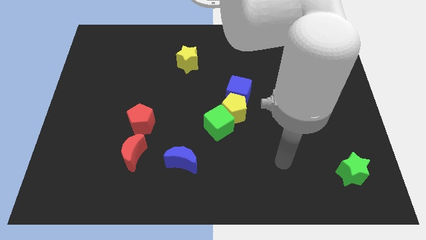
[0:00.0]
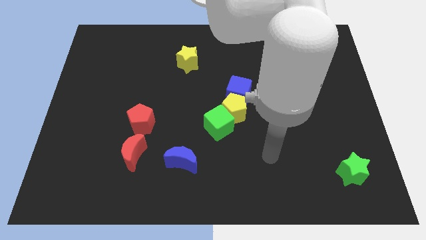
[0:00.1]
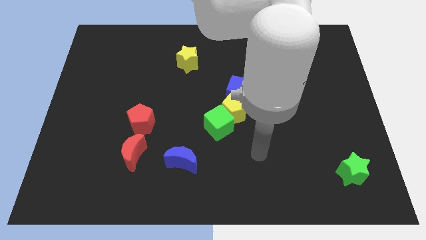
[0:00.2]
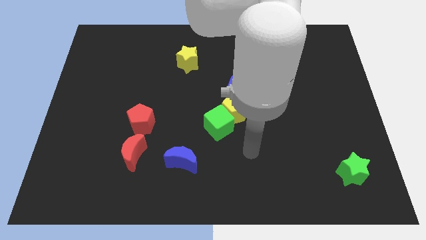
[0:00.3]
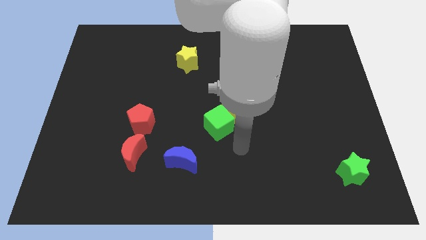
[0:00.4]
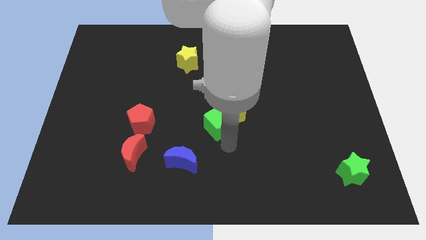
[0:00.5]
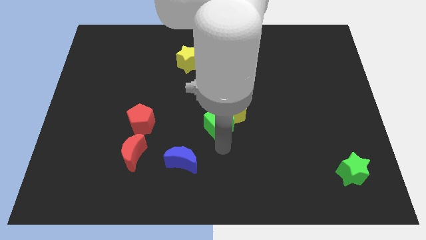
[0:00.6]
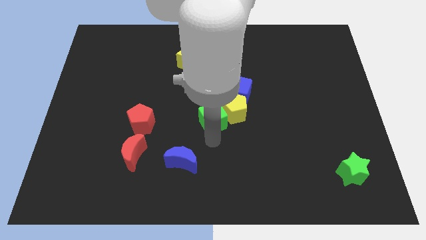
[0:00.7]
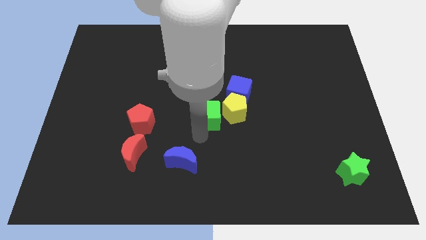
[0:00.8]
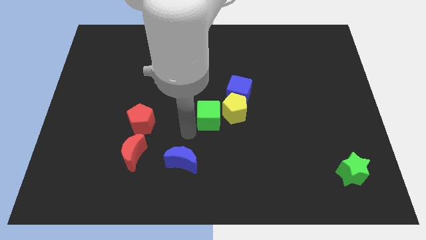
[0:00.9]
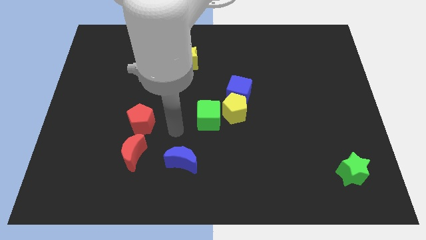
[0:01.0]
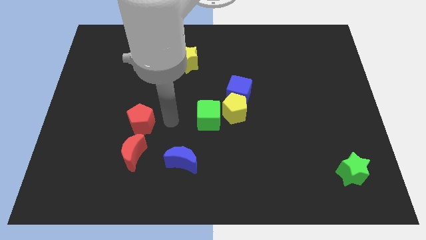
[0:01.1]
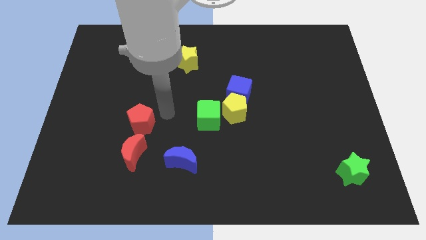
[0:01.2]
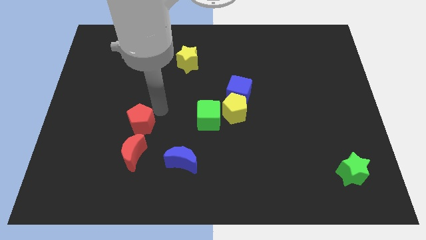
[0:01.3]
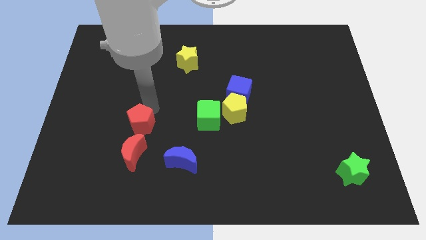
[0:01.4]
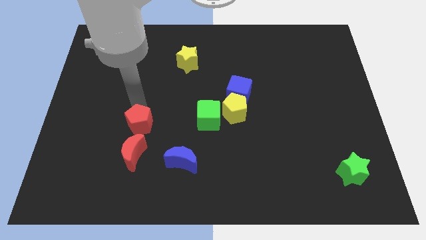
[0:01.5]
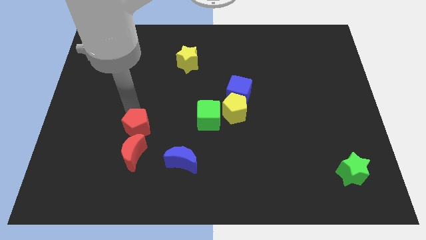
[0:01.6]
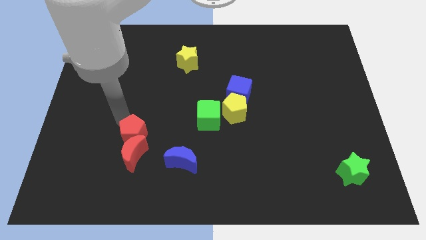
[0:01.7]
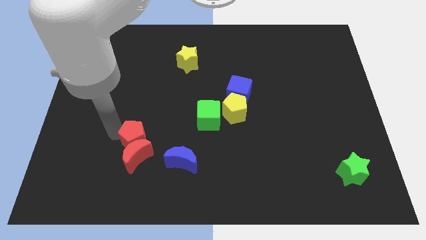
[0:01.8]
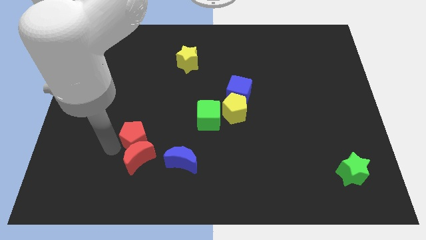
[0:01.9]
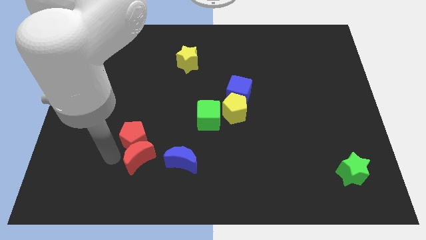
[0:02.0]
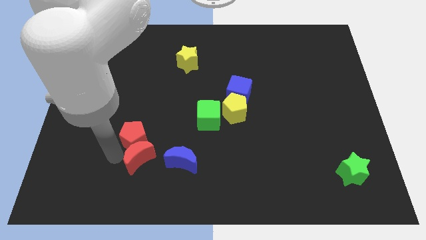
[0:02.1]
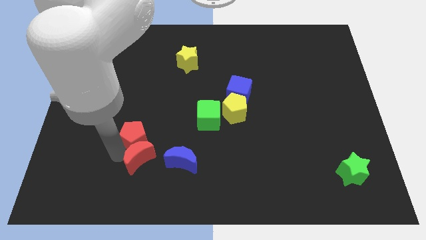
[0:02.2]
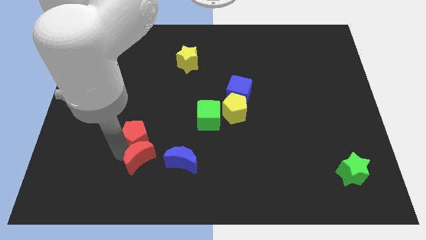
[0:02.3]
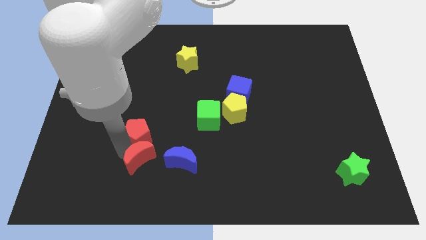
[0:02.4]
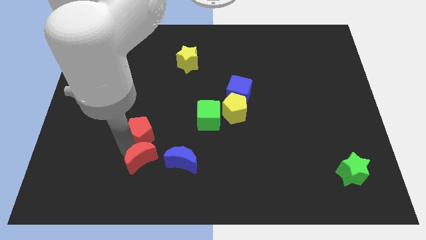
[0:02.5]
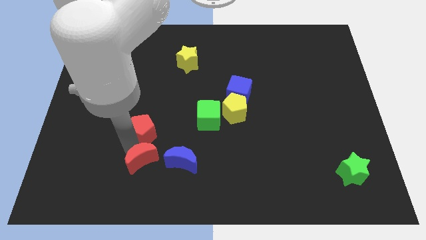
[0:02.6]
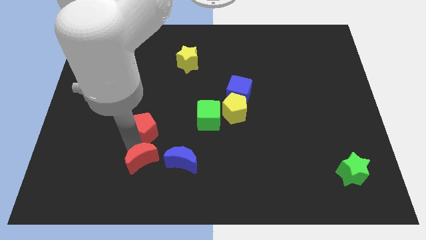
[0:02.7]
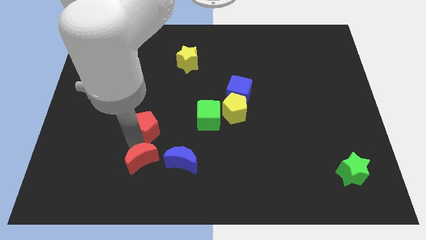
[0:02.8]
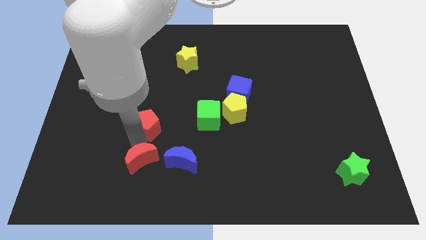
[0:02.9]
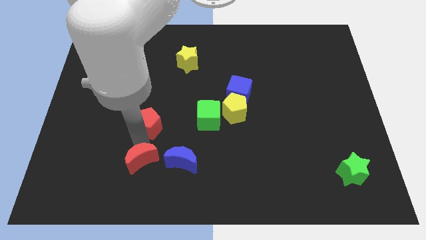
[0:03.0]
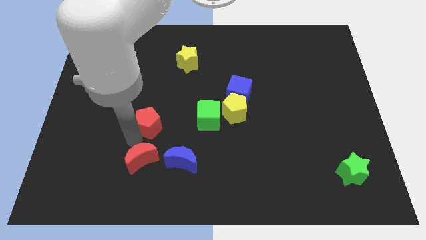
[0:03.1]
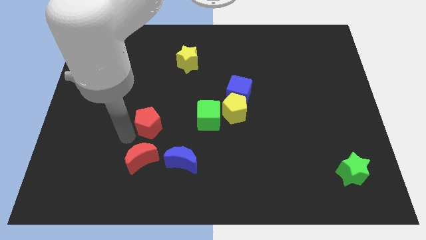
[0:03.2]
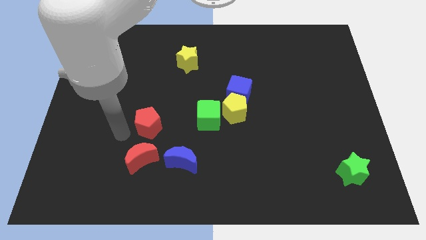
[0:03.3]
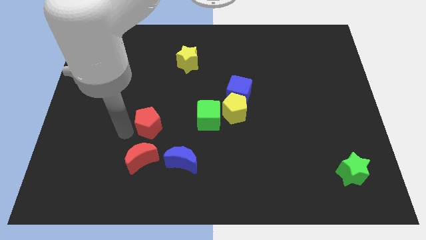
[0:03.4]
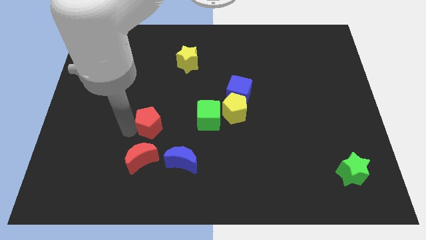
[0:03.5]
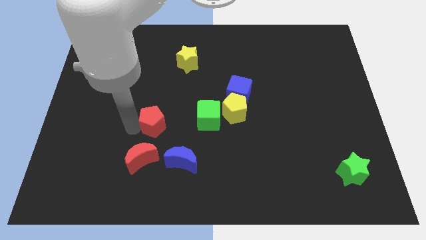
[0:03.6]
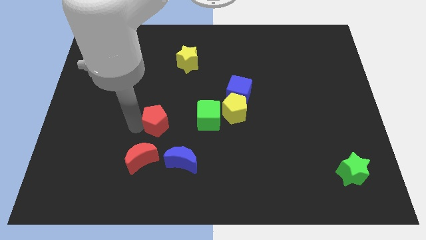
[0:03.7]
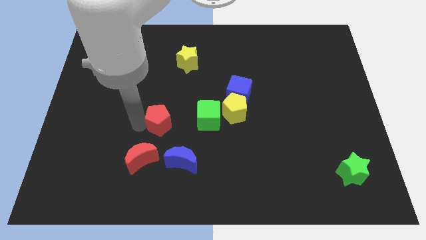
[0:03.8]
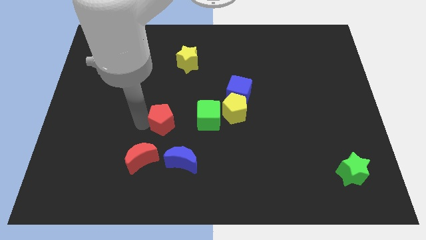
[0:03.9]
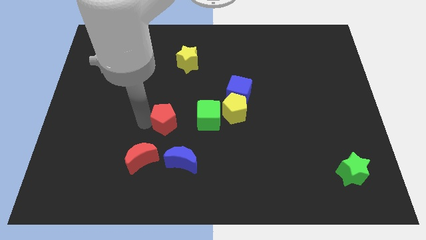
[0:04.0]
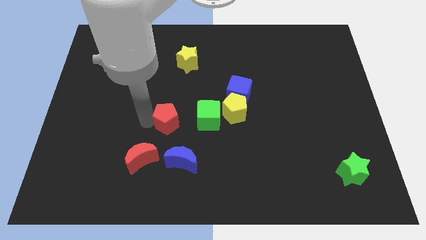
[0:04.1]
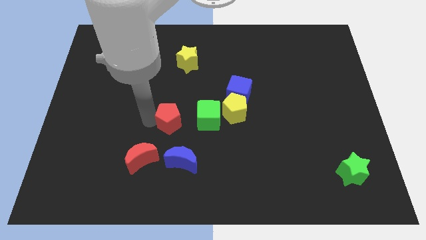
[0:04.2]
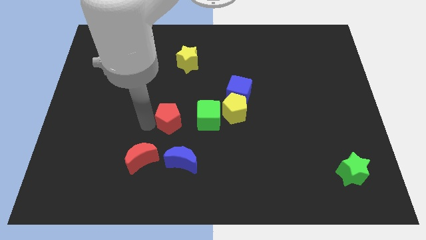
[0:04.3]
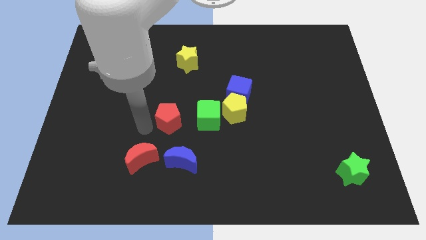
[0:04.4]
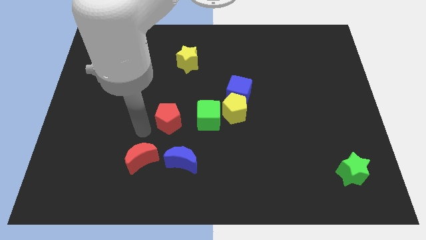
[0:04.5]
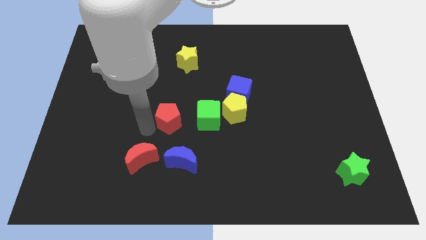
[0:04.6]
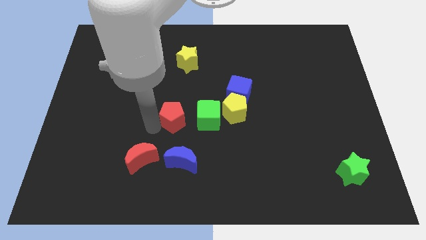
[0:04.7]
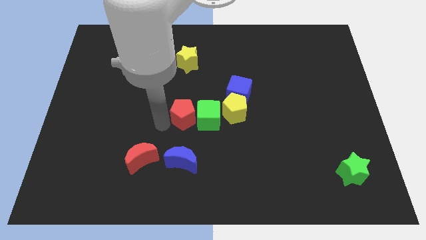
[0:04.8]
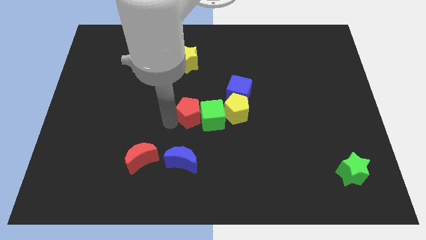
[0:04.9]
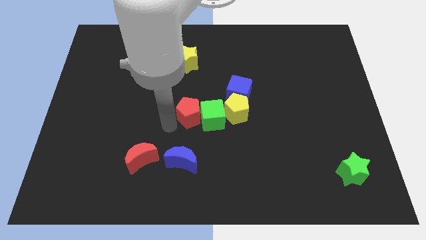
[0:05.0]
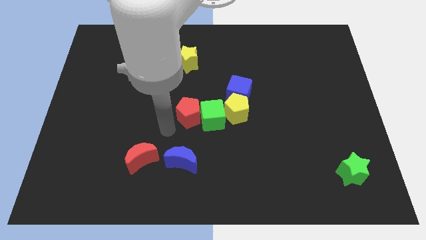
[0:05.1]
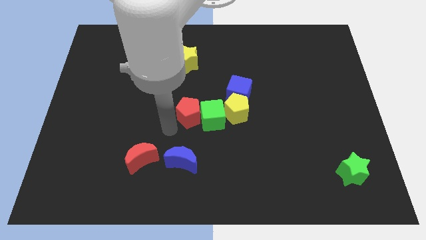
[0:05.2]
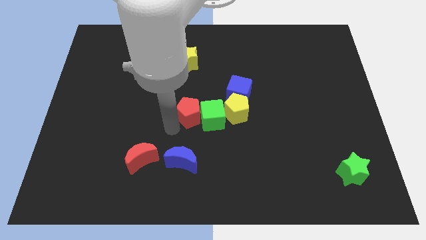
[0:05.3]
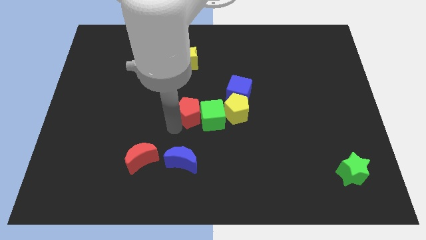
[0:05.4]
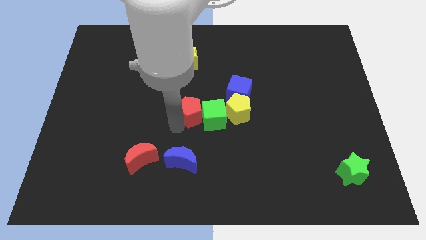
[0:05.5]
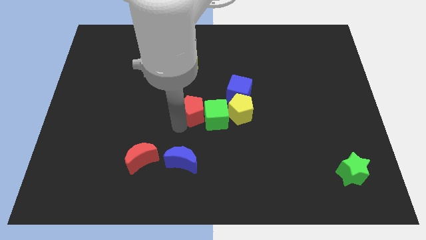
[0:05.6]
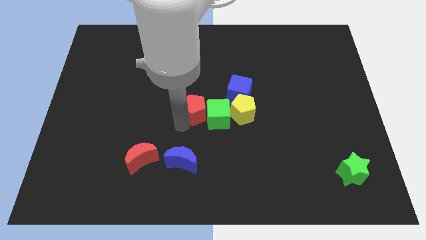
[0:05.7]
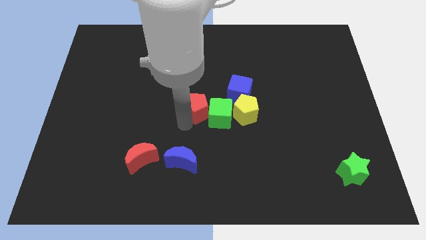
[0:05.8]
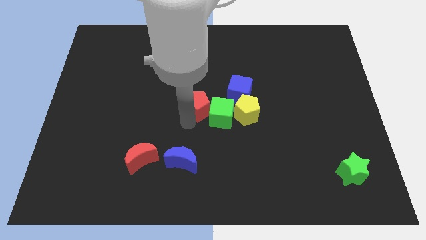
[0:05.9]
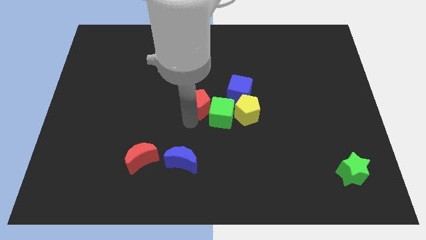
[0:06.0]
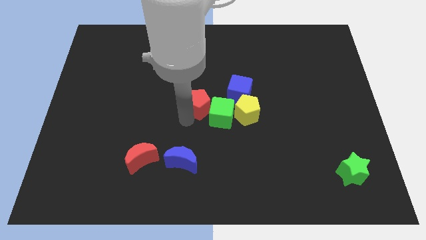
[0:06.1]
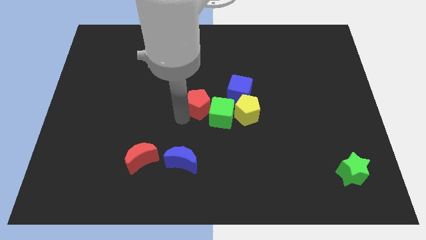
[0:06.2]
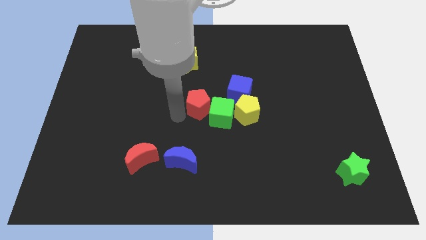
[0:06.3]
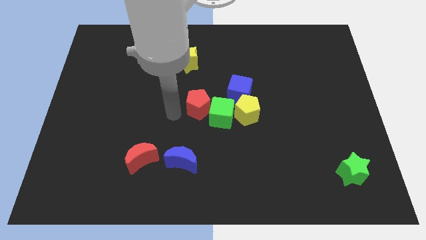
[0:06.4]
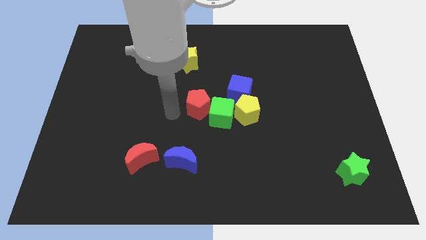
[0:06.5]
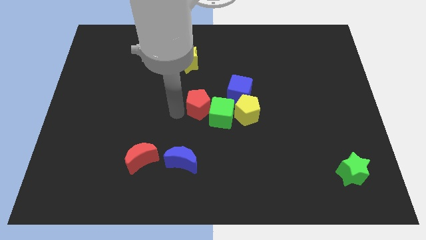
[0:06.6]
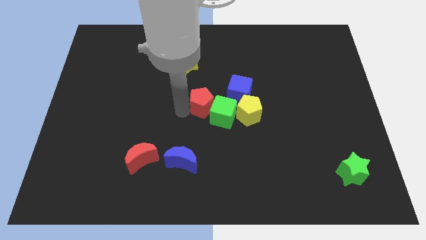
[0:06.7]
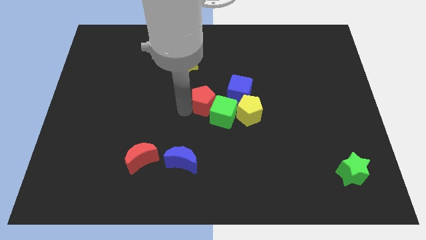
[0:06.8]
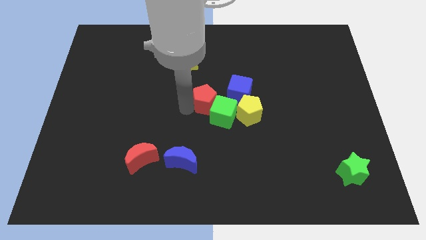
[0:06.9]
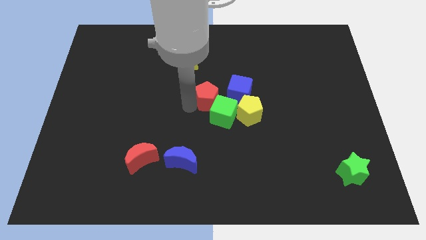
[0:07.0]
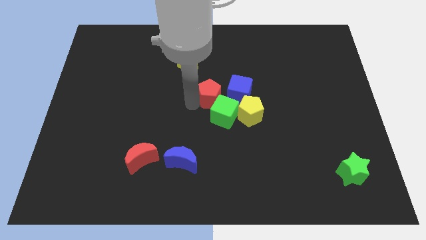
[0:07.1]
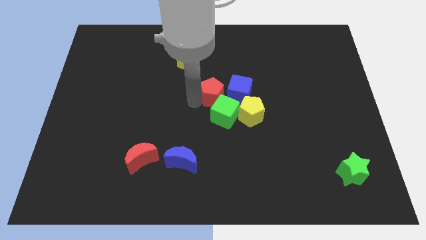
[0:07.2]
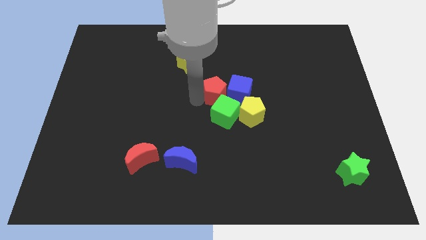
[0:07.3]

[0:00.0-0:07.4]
move the red pentagon next to the blue cube
